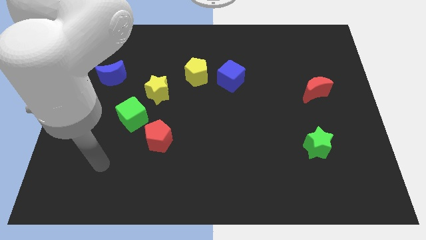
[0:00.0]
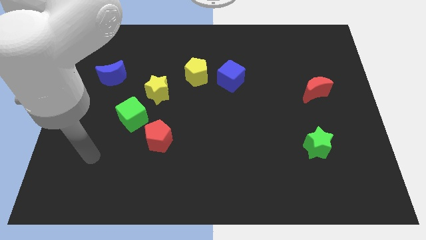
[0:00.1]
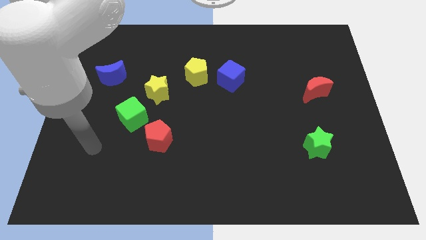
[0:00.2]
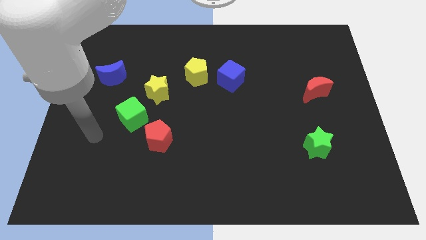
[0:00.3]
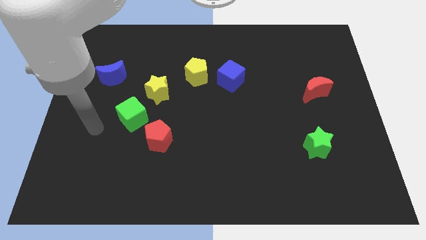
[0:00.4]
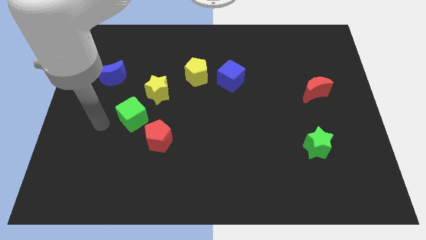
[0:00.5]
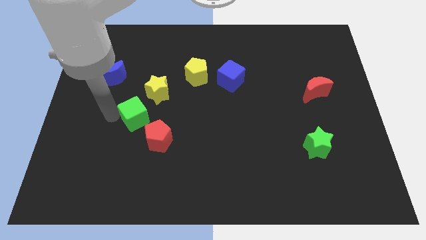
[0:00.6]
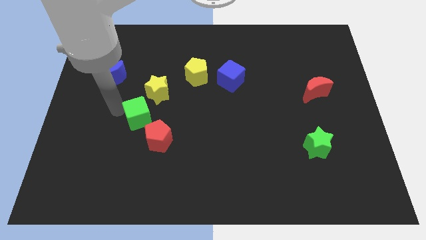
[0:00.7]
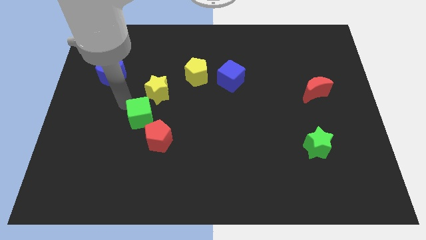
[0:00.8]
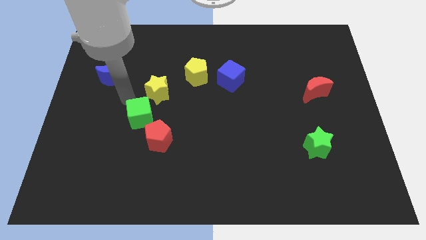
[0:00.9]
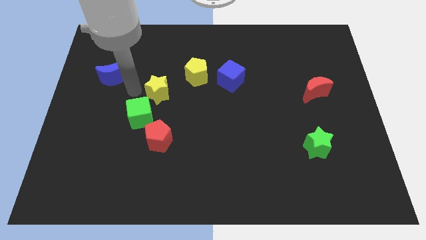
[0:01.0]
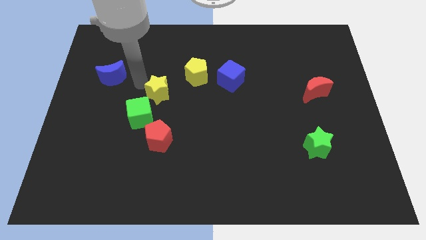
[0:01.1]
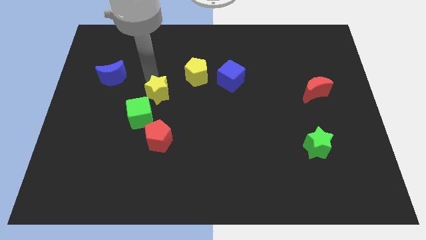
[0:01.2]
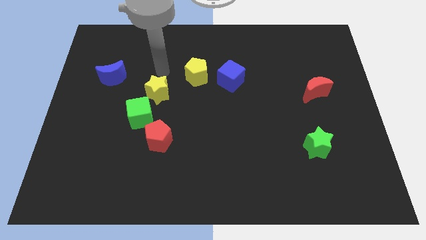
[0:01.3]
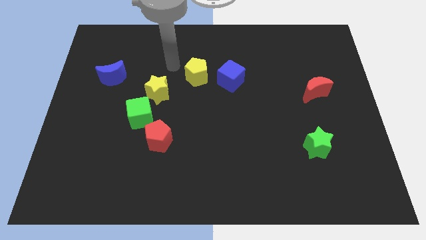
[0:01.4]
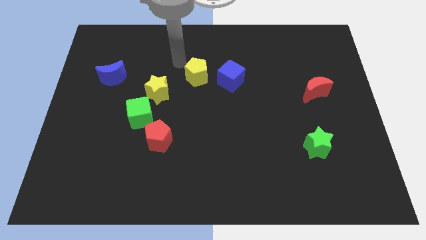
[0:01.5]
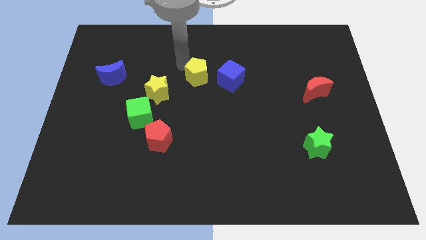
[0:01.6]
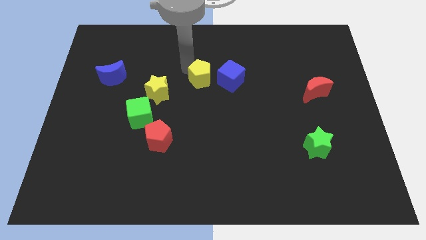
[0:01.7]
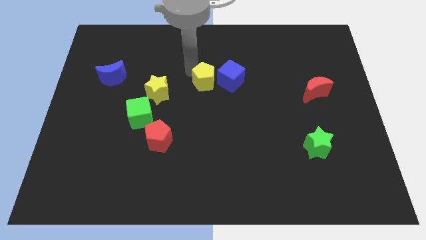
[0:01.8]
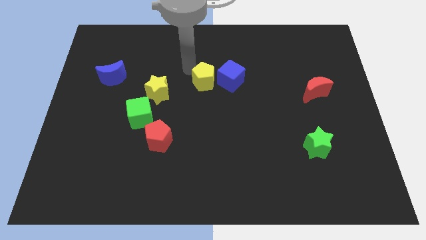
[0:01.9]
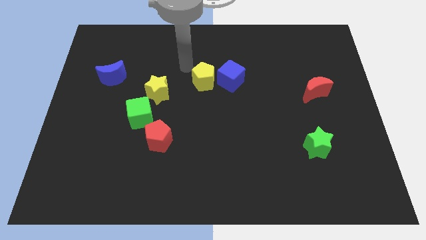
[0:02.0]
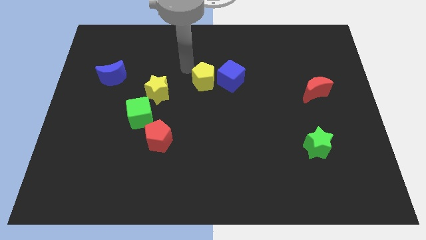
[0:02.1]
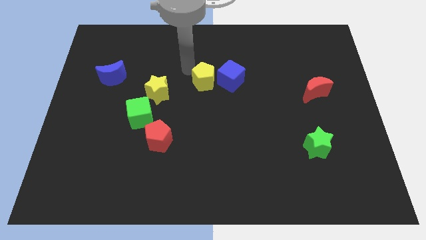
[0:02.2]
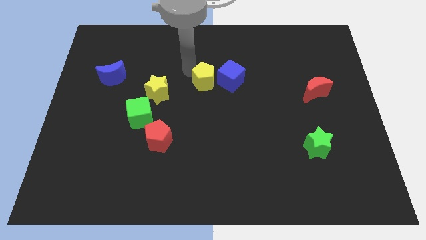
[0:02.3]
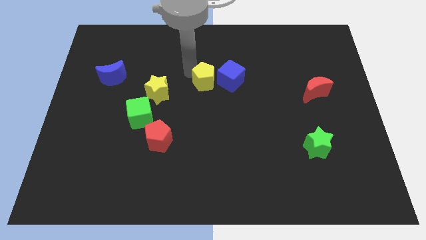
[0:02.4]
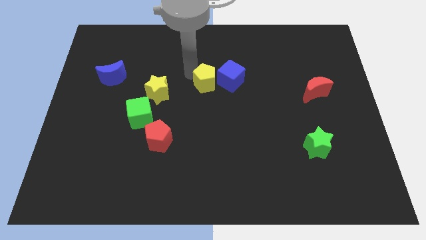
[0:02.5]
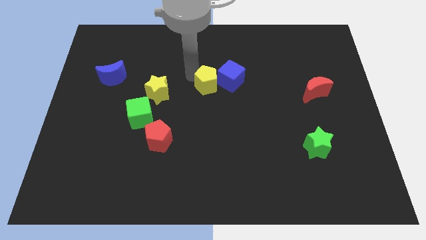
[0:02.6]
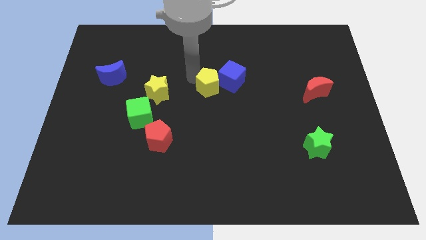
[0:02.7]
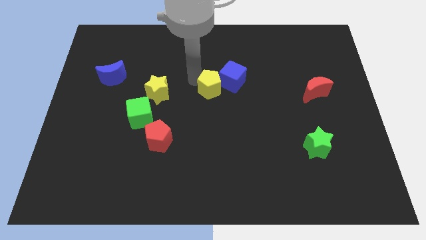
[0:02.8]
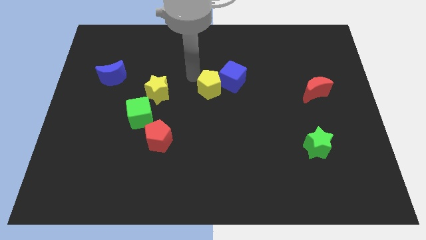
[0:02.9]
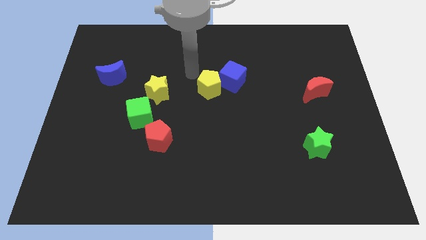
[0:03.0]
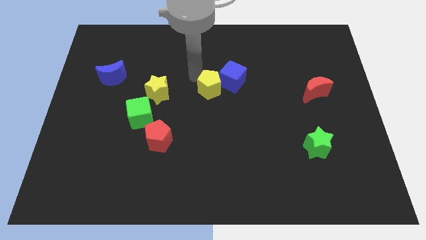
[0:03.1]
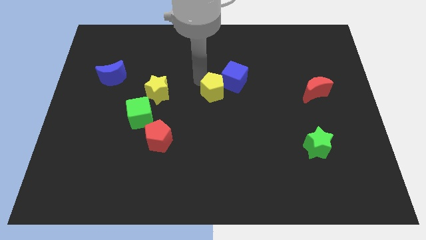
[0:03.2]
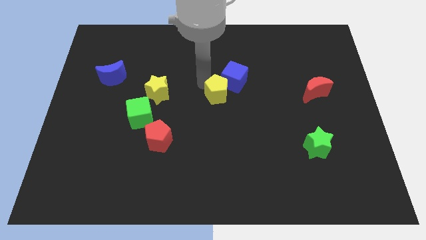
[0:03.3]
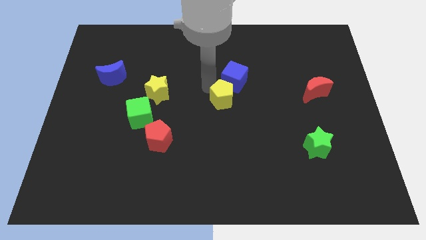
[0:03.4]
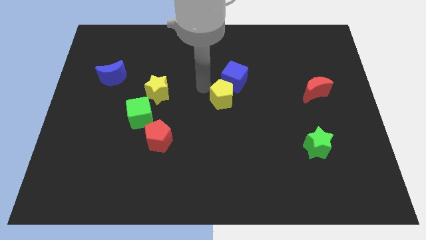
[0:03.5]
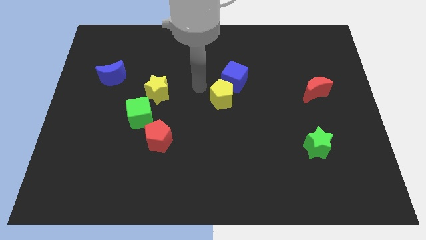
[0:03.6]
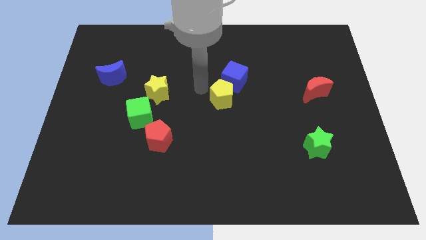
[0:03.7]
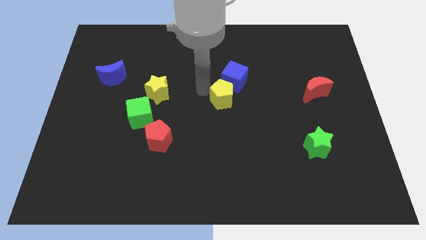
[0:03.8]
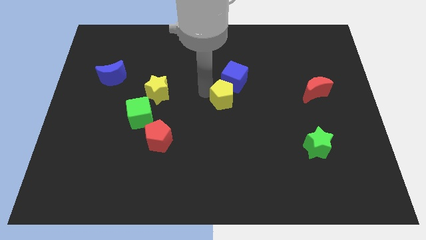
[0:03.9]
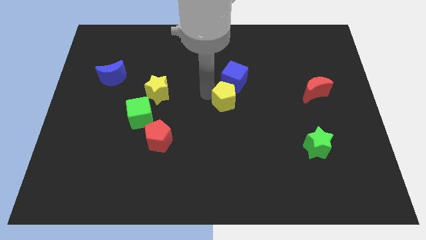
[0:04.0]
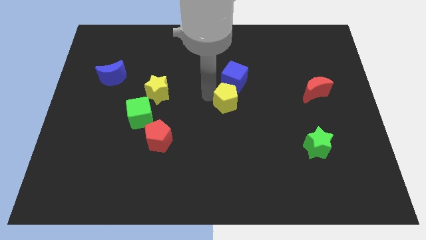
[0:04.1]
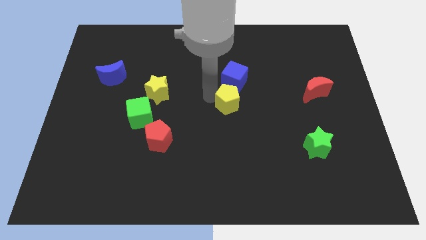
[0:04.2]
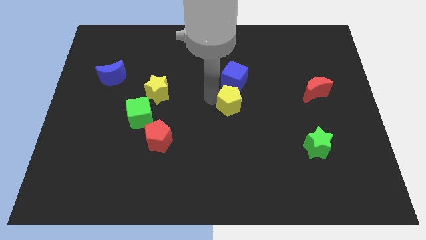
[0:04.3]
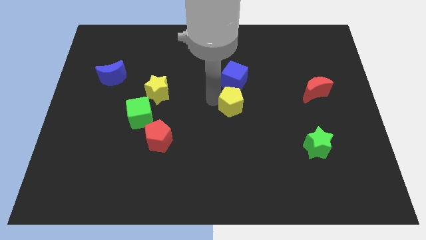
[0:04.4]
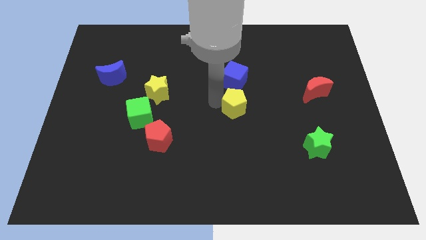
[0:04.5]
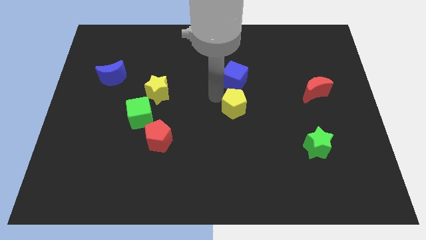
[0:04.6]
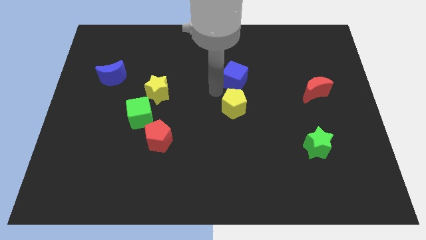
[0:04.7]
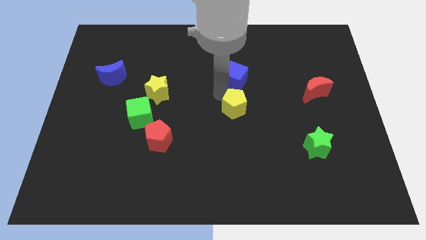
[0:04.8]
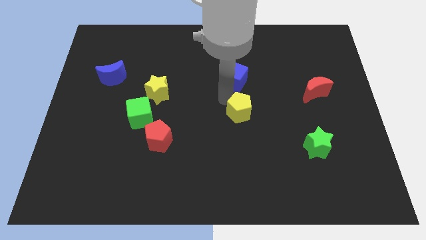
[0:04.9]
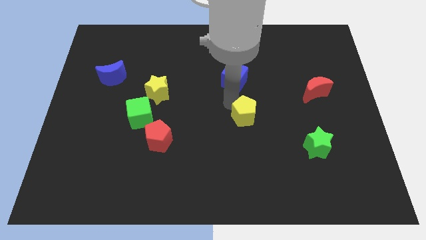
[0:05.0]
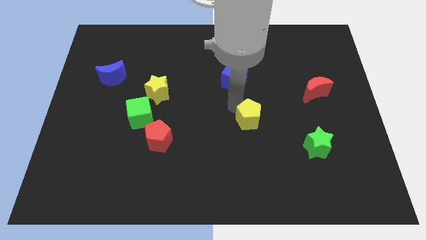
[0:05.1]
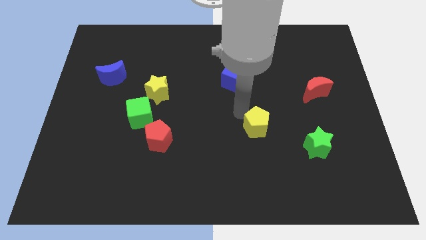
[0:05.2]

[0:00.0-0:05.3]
slide the yellow pentagon downwards and to the right diagonally

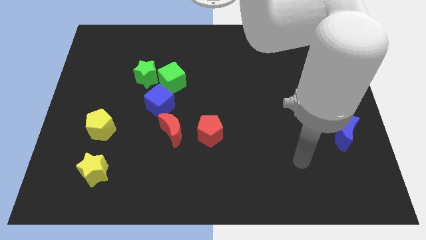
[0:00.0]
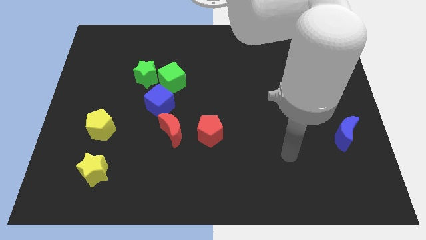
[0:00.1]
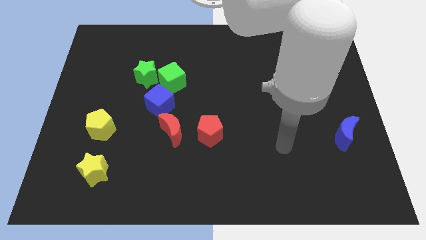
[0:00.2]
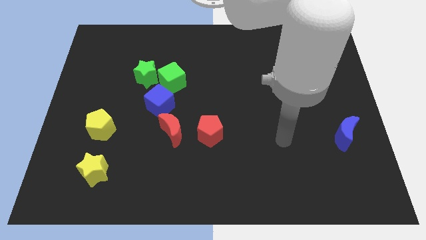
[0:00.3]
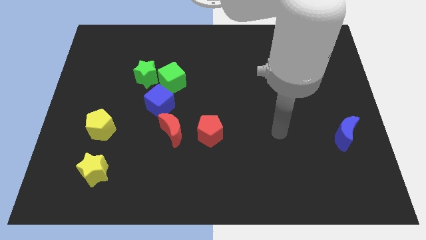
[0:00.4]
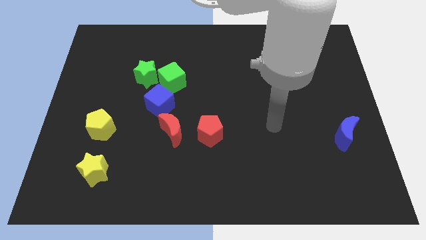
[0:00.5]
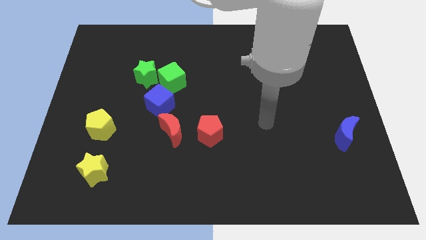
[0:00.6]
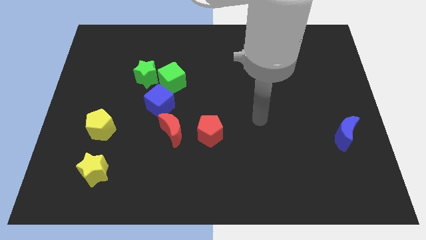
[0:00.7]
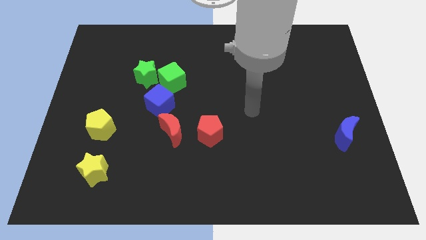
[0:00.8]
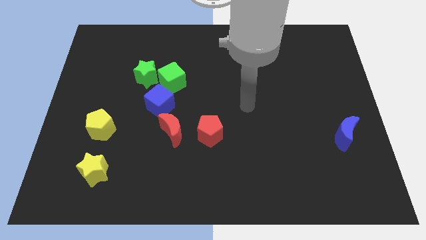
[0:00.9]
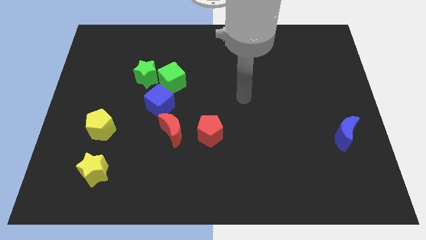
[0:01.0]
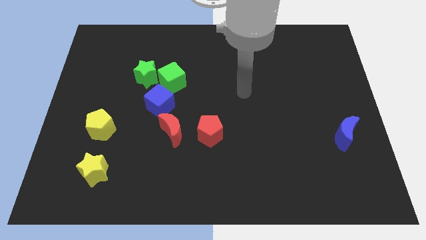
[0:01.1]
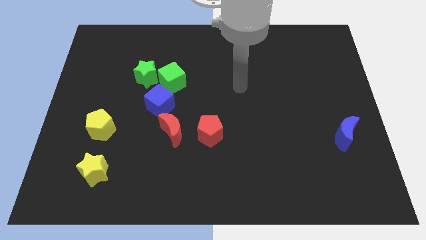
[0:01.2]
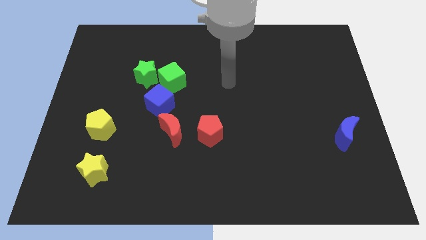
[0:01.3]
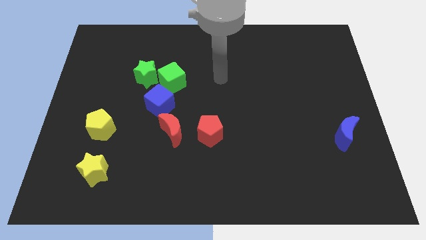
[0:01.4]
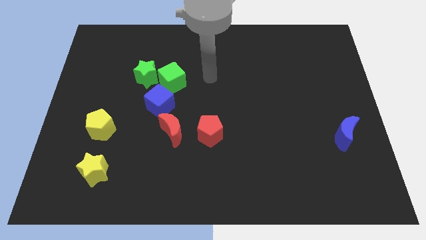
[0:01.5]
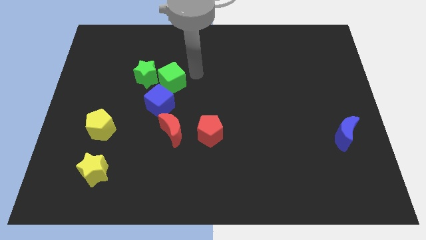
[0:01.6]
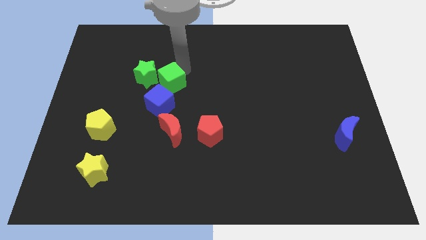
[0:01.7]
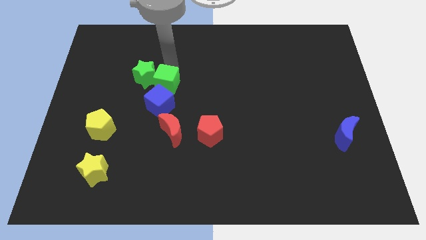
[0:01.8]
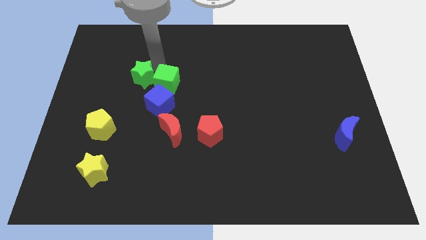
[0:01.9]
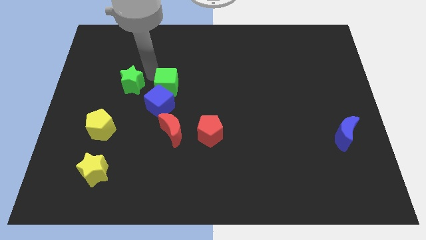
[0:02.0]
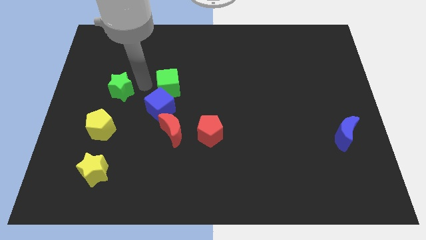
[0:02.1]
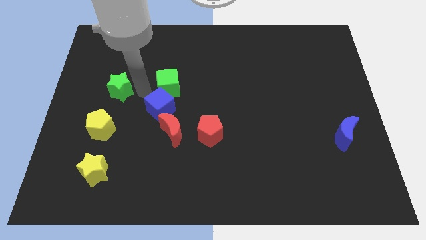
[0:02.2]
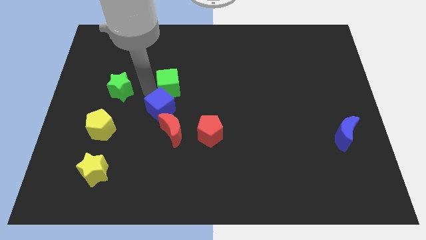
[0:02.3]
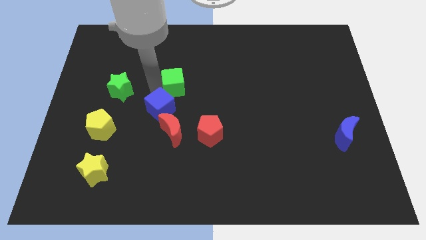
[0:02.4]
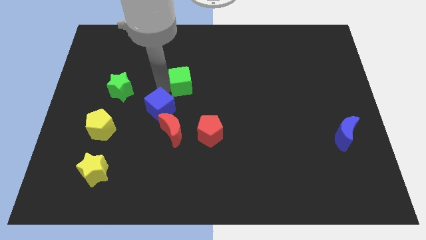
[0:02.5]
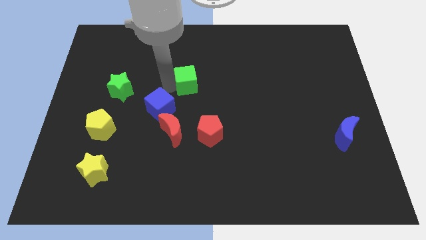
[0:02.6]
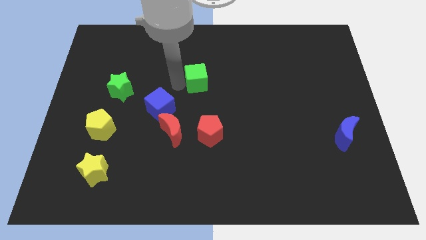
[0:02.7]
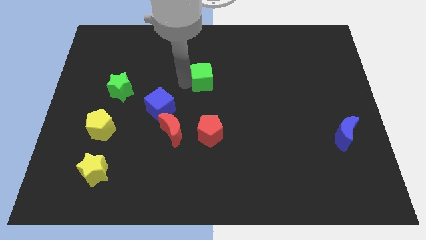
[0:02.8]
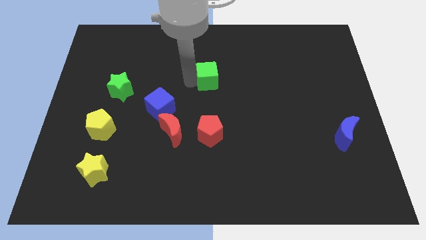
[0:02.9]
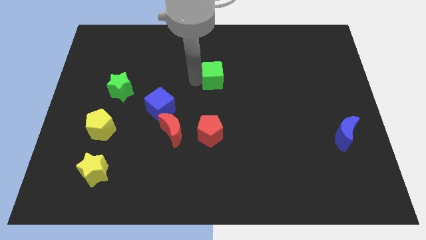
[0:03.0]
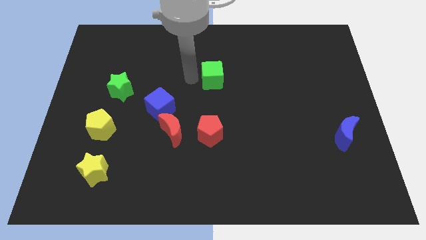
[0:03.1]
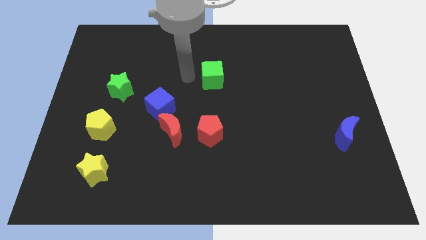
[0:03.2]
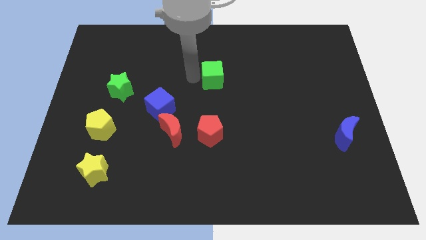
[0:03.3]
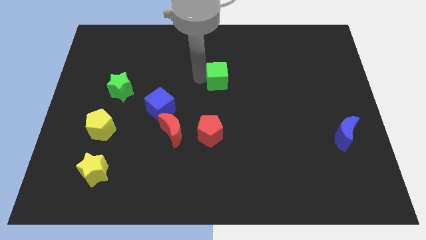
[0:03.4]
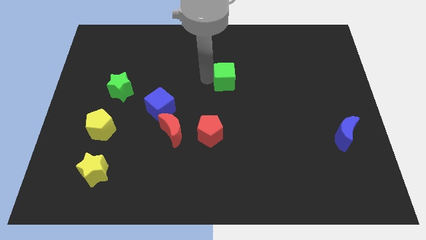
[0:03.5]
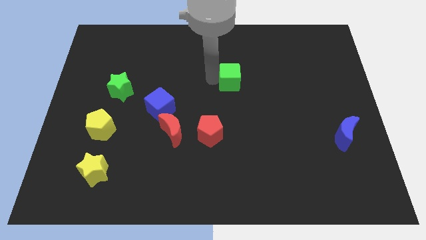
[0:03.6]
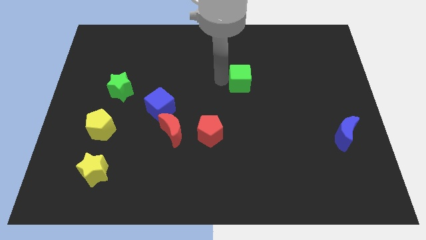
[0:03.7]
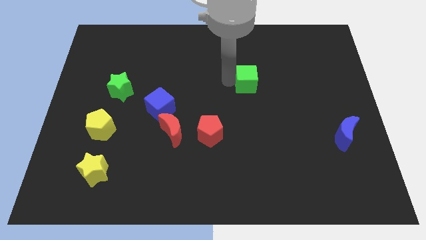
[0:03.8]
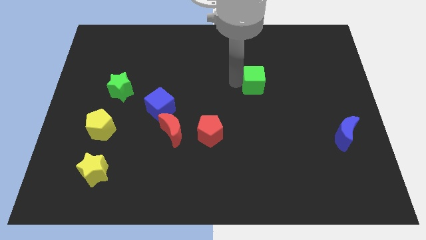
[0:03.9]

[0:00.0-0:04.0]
move the green cube right
